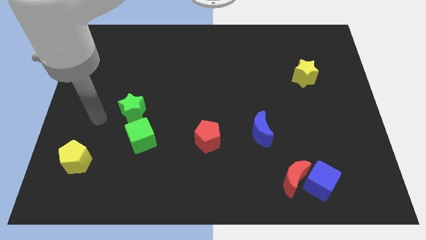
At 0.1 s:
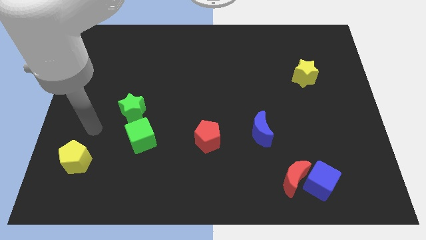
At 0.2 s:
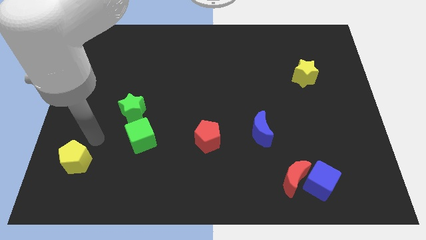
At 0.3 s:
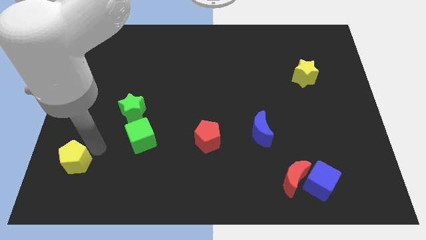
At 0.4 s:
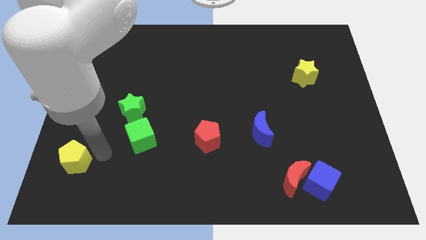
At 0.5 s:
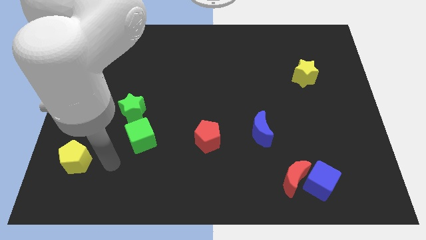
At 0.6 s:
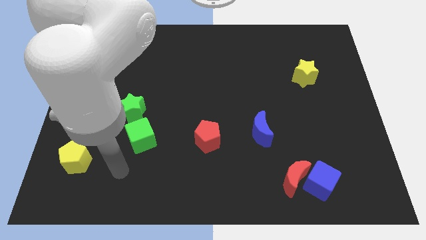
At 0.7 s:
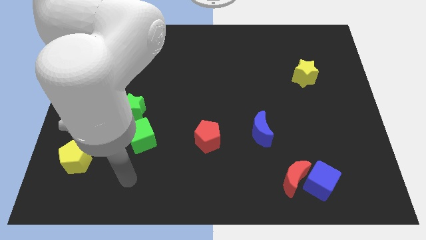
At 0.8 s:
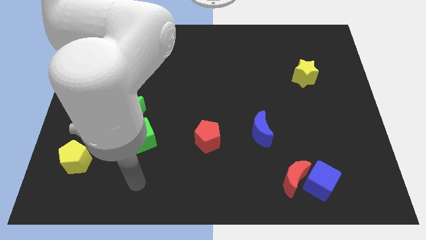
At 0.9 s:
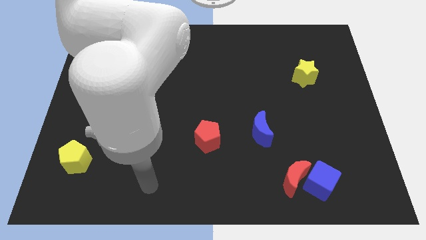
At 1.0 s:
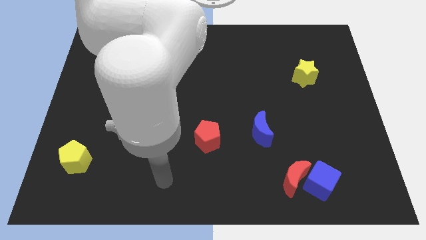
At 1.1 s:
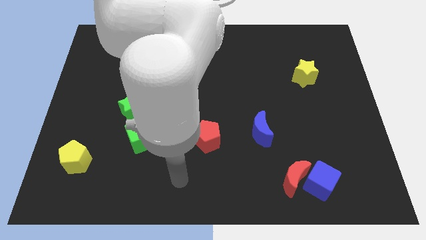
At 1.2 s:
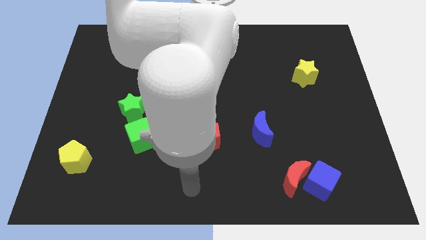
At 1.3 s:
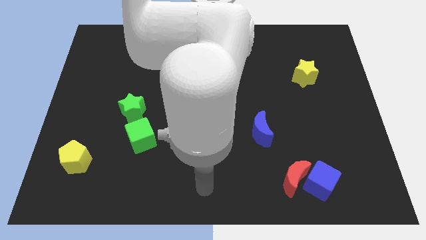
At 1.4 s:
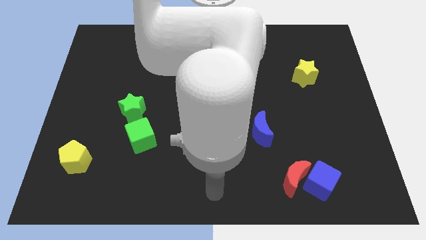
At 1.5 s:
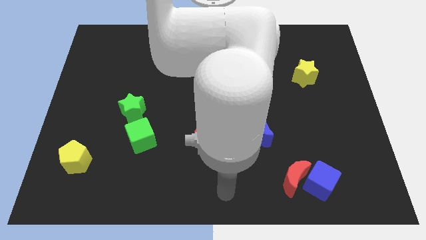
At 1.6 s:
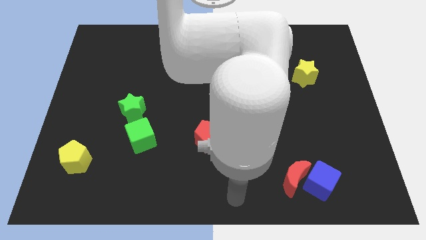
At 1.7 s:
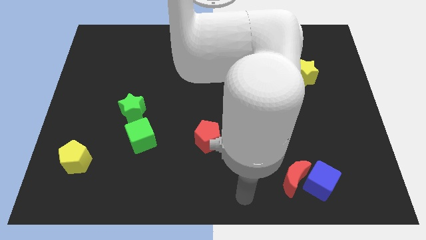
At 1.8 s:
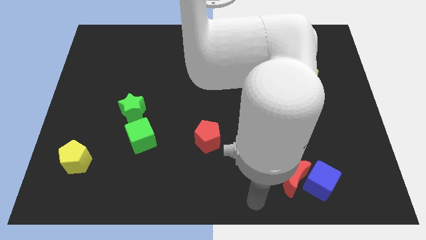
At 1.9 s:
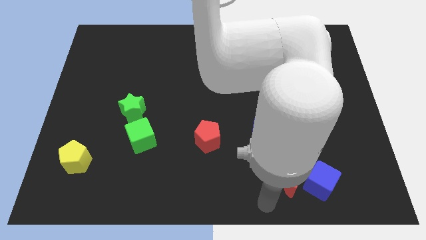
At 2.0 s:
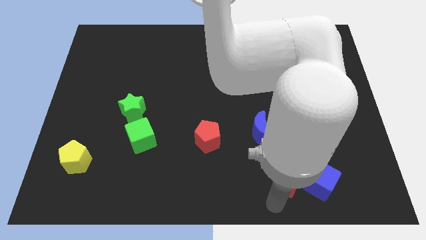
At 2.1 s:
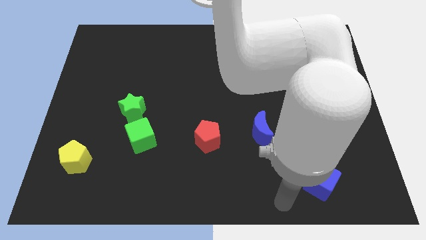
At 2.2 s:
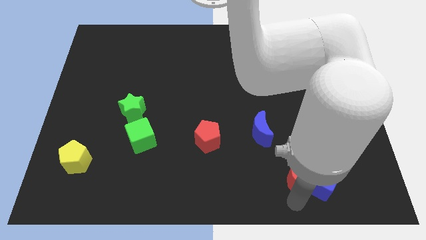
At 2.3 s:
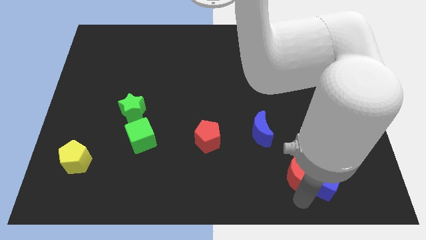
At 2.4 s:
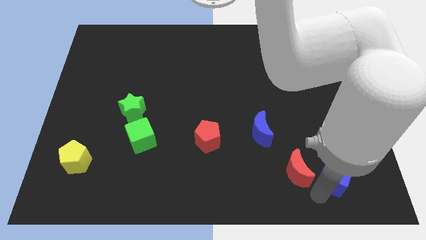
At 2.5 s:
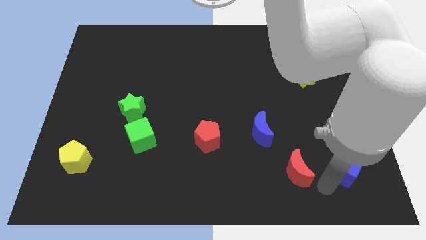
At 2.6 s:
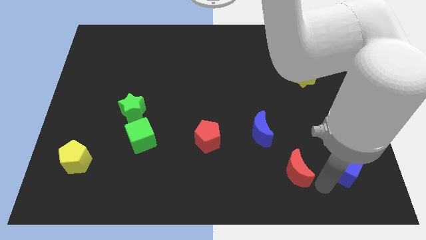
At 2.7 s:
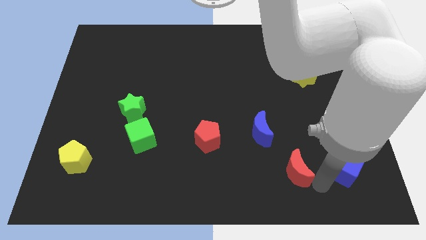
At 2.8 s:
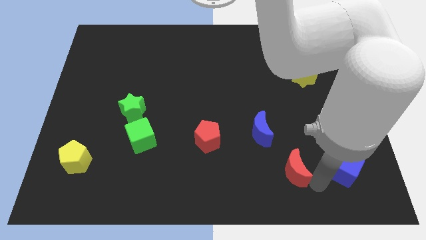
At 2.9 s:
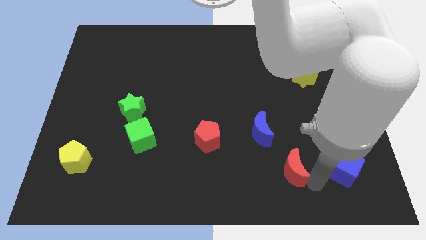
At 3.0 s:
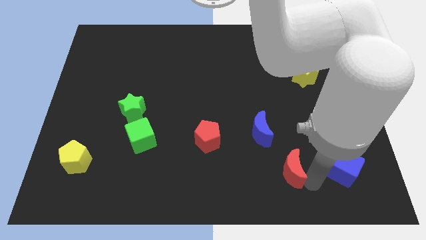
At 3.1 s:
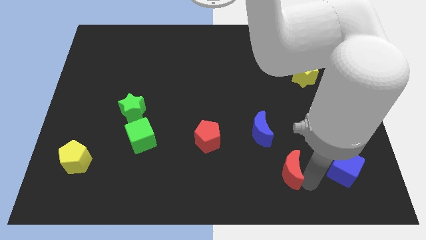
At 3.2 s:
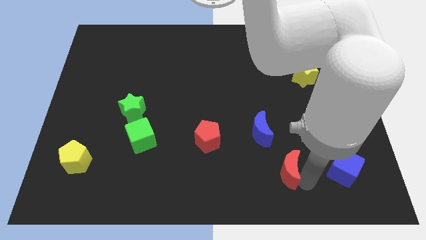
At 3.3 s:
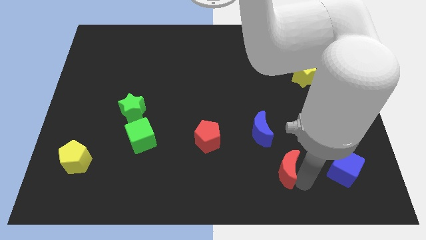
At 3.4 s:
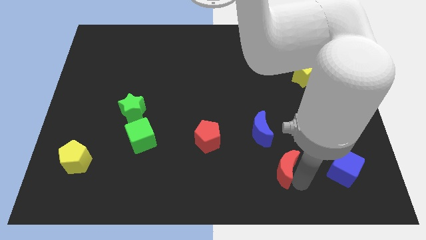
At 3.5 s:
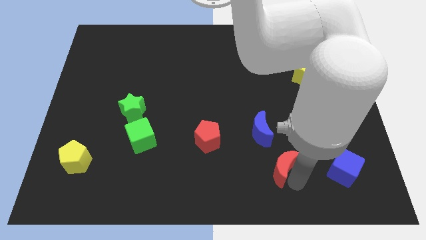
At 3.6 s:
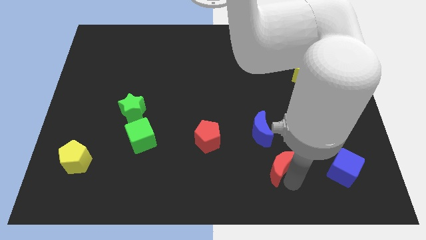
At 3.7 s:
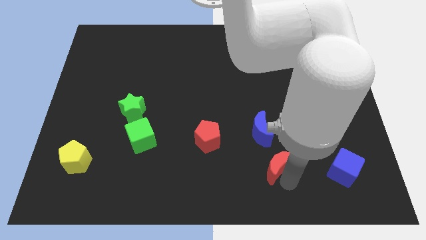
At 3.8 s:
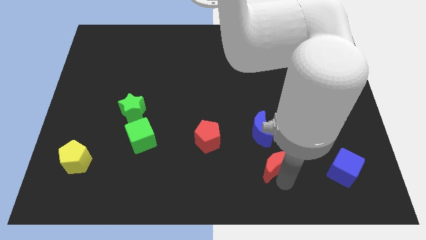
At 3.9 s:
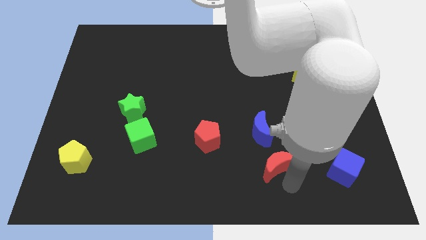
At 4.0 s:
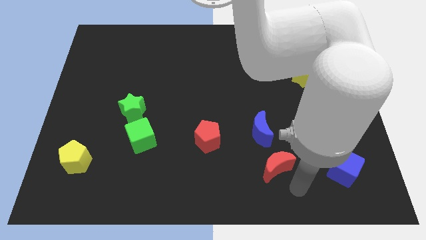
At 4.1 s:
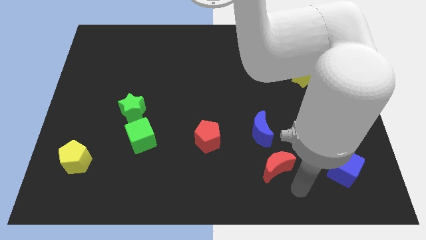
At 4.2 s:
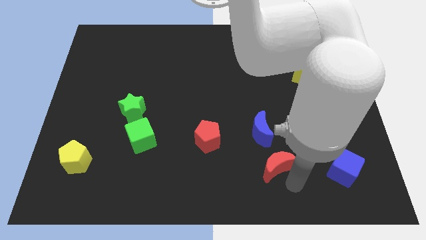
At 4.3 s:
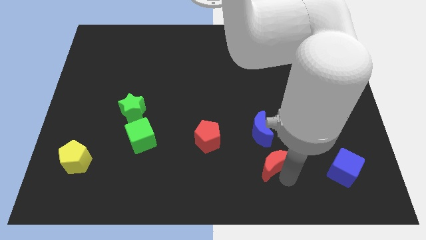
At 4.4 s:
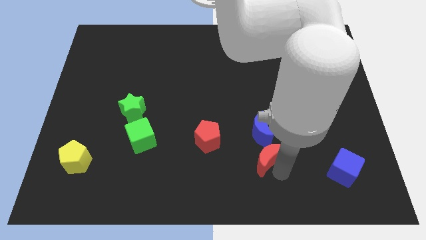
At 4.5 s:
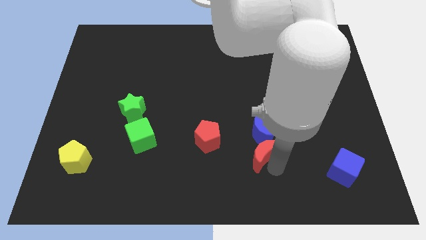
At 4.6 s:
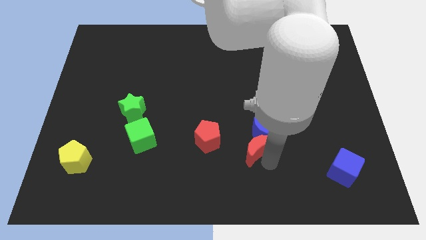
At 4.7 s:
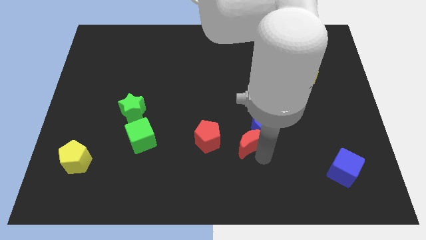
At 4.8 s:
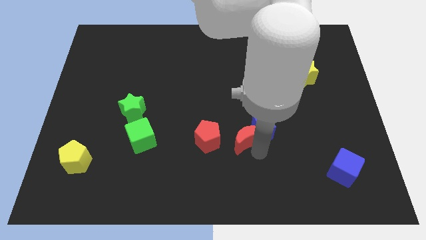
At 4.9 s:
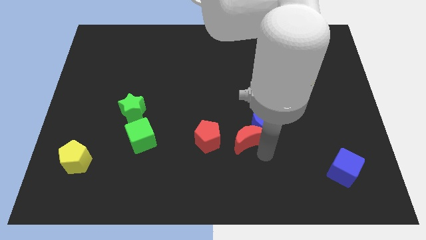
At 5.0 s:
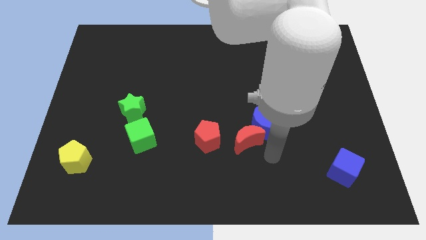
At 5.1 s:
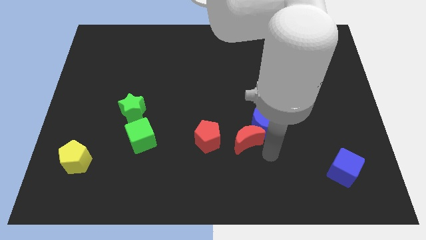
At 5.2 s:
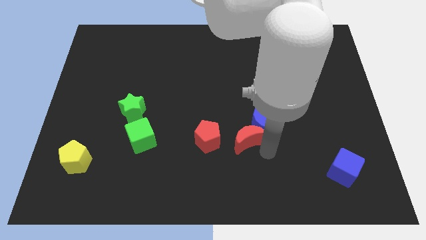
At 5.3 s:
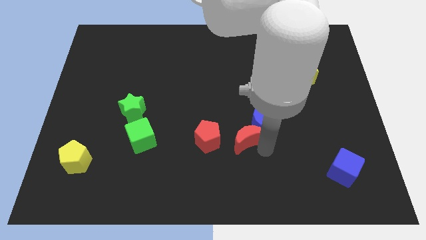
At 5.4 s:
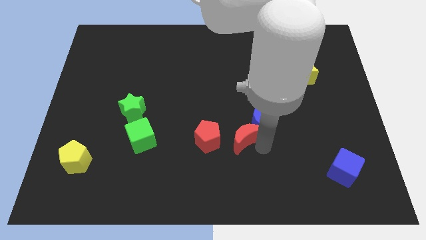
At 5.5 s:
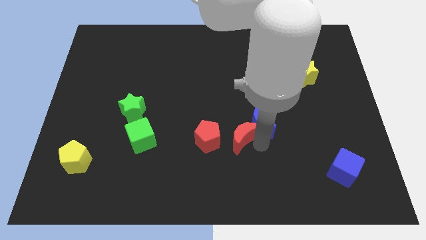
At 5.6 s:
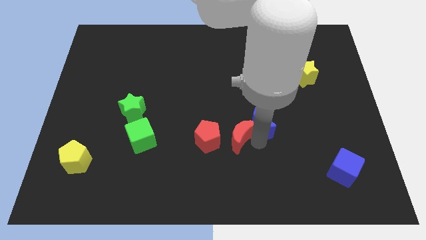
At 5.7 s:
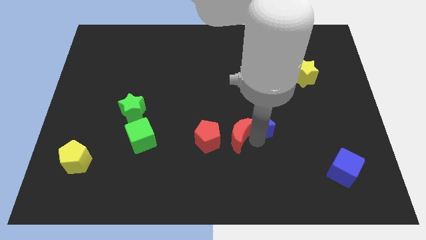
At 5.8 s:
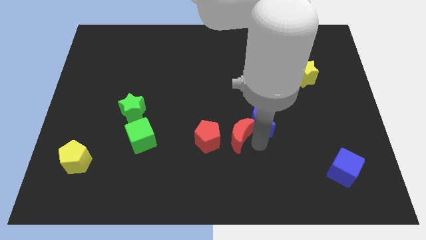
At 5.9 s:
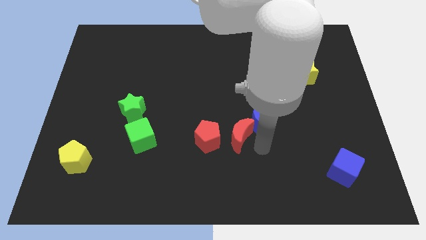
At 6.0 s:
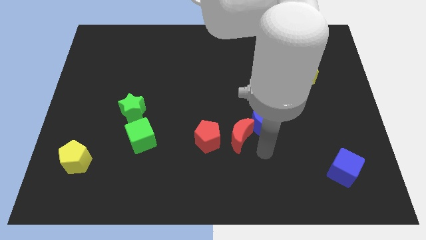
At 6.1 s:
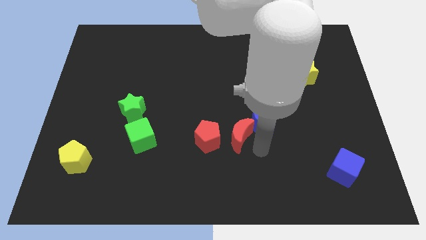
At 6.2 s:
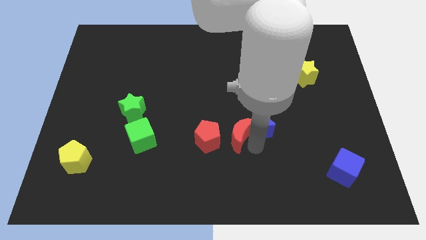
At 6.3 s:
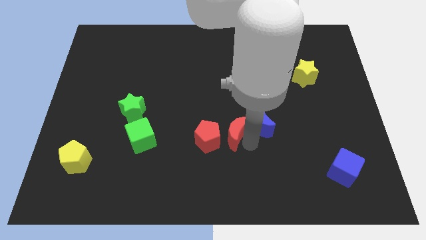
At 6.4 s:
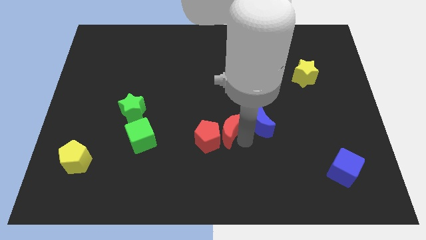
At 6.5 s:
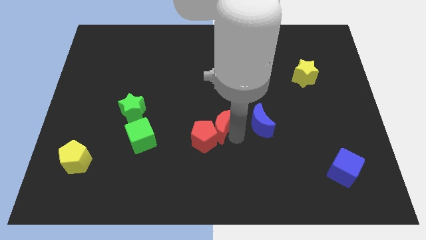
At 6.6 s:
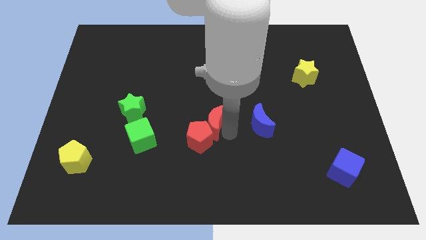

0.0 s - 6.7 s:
push the red moon up and then left

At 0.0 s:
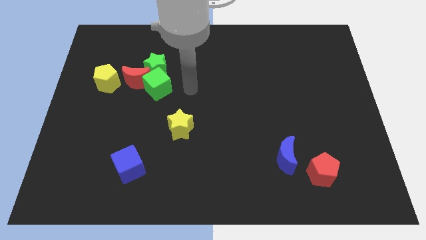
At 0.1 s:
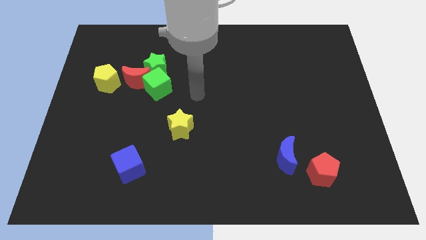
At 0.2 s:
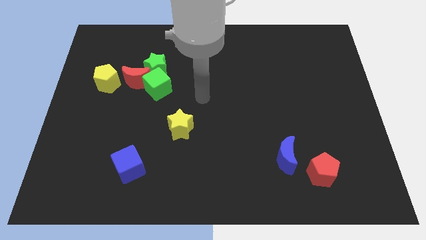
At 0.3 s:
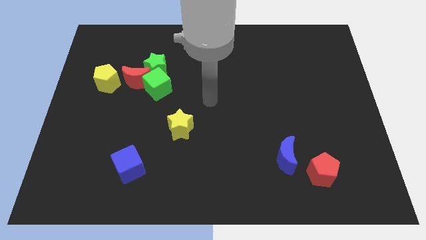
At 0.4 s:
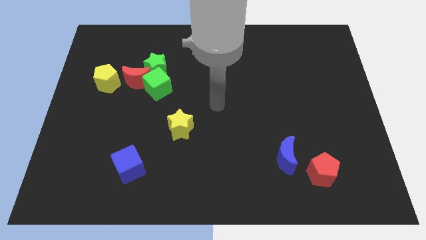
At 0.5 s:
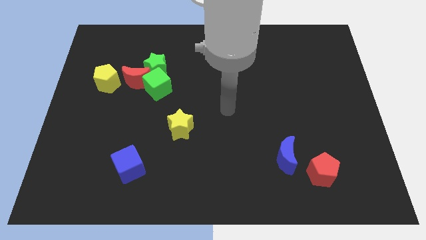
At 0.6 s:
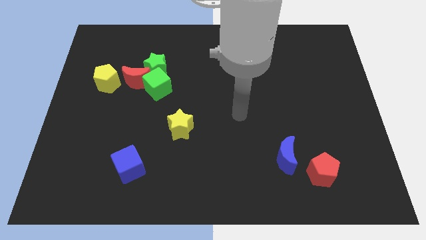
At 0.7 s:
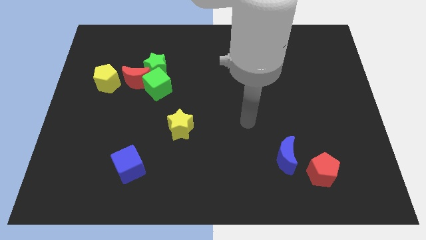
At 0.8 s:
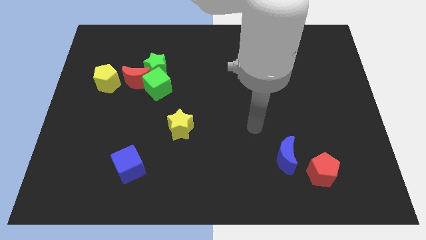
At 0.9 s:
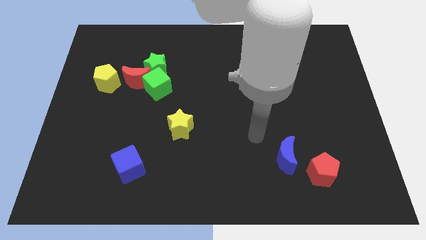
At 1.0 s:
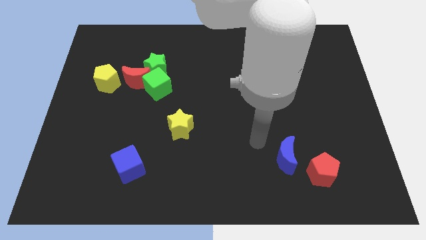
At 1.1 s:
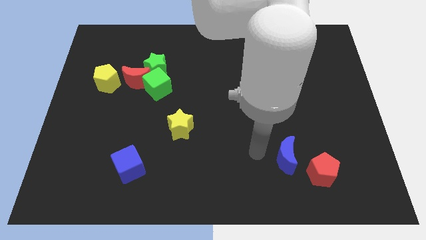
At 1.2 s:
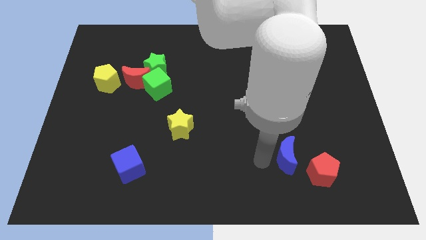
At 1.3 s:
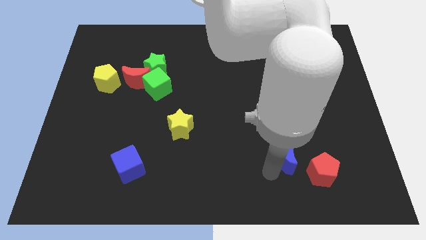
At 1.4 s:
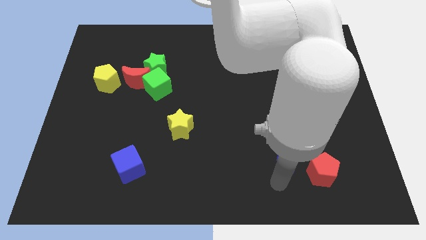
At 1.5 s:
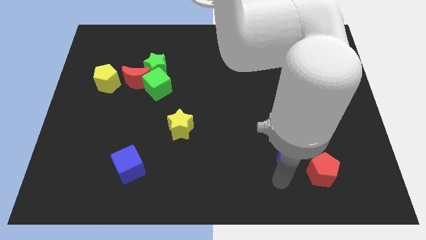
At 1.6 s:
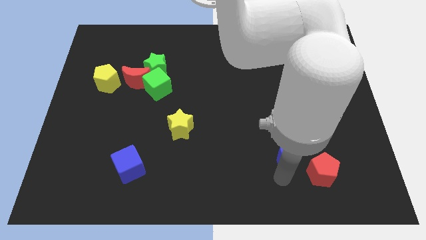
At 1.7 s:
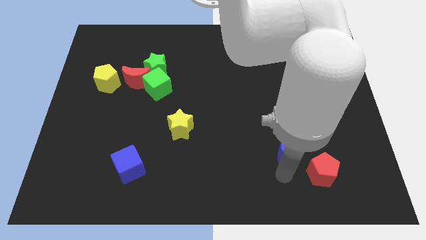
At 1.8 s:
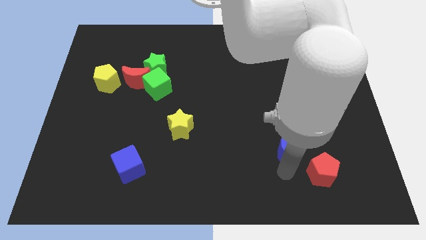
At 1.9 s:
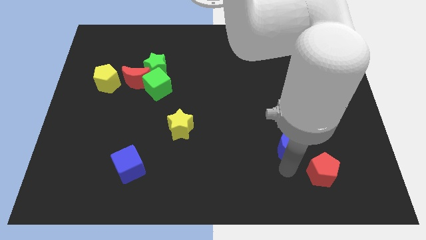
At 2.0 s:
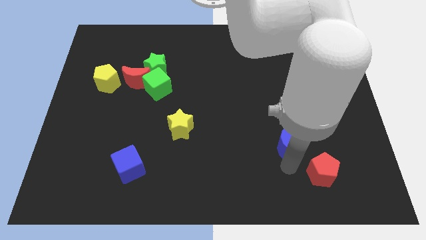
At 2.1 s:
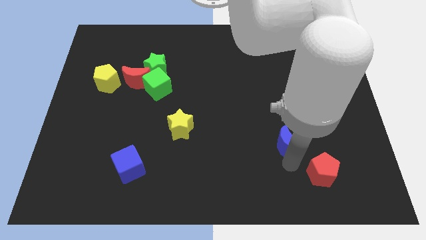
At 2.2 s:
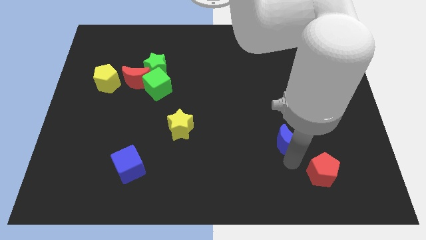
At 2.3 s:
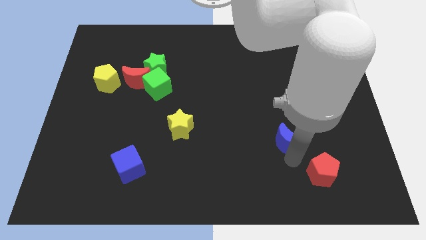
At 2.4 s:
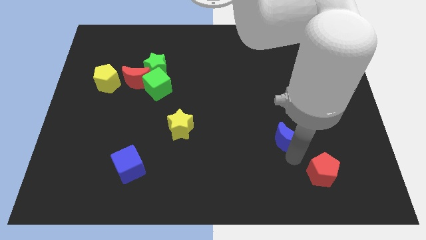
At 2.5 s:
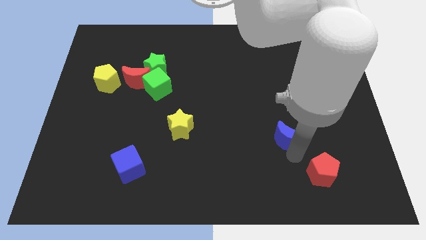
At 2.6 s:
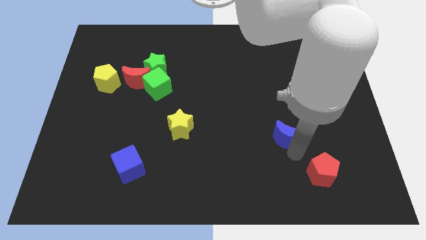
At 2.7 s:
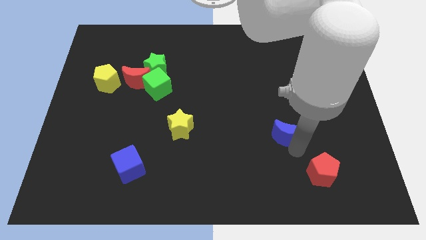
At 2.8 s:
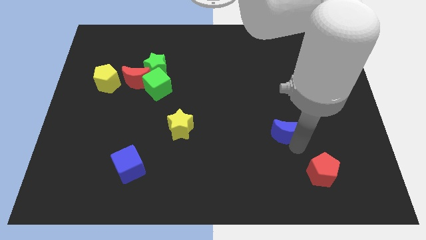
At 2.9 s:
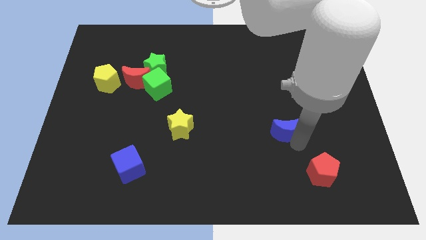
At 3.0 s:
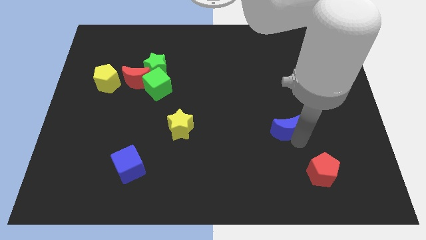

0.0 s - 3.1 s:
slightly move the blue moon upwards
